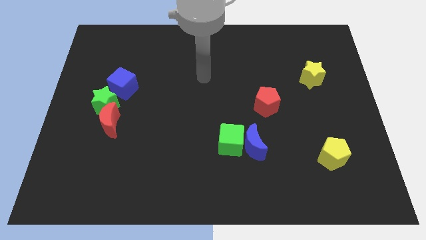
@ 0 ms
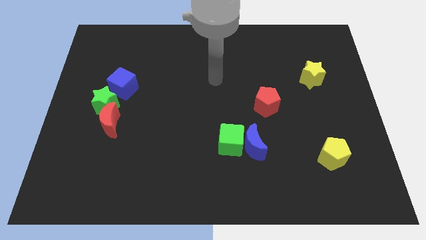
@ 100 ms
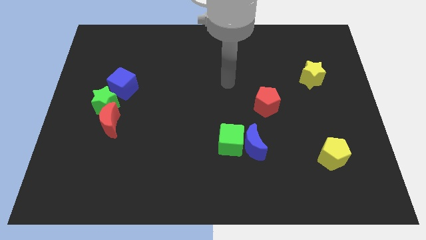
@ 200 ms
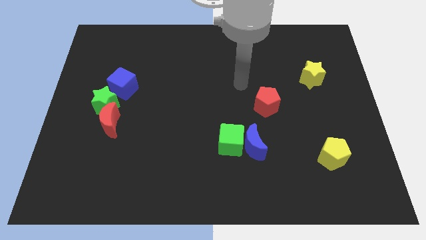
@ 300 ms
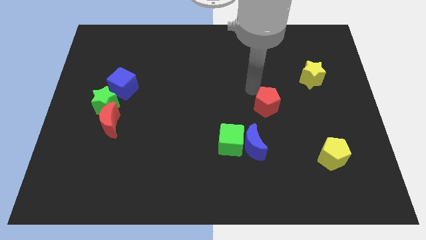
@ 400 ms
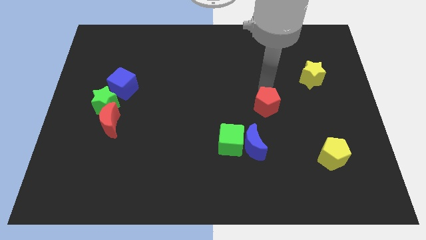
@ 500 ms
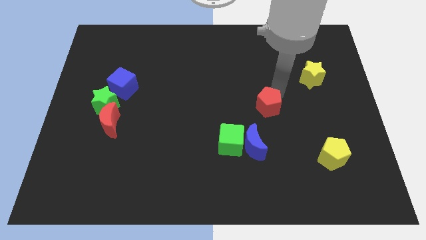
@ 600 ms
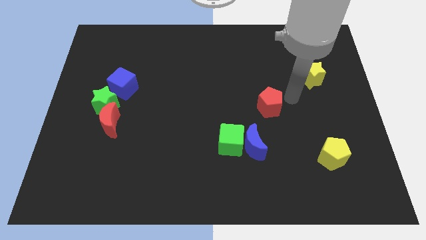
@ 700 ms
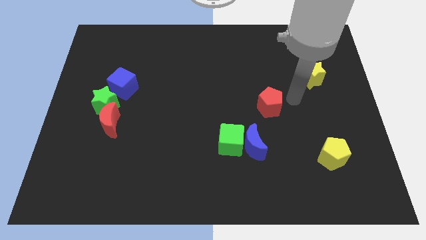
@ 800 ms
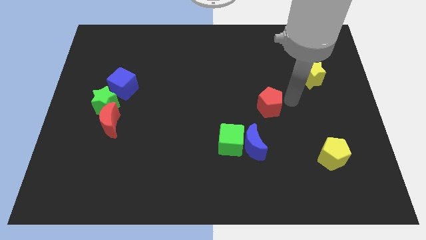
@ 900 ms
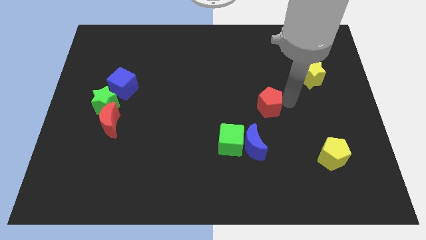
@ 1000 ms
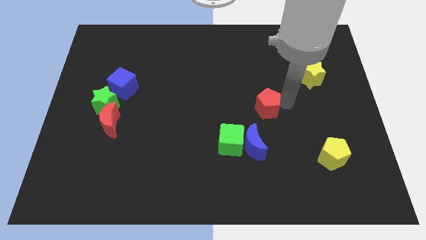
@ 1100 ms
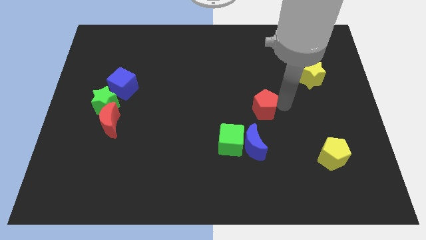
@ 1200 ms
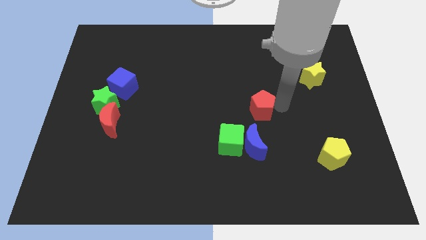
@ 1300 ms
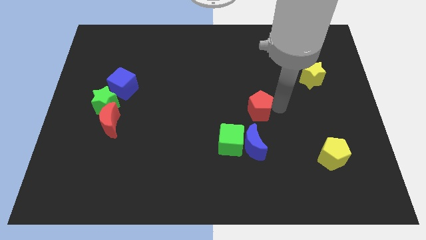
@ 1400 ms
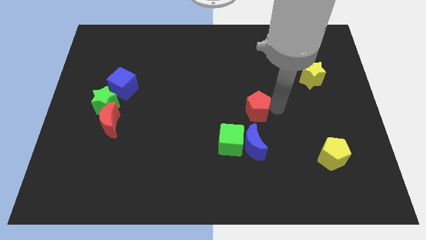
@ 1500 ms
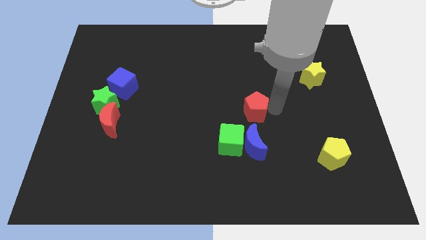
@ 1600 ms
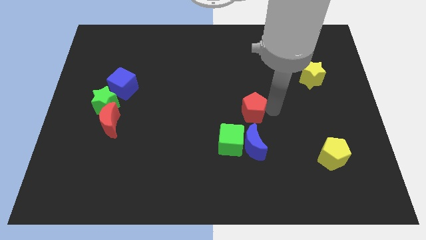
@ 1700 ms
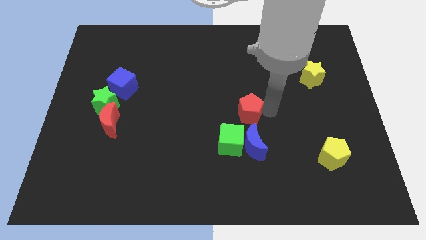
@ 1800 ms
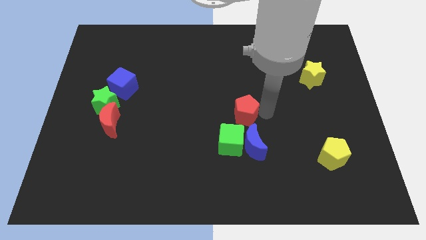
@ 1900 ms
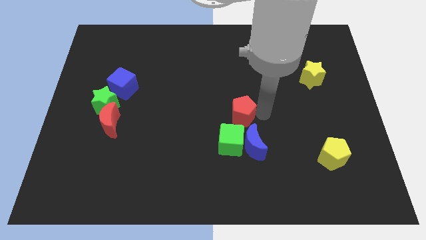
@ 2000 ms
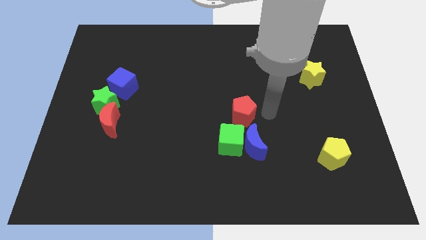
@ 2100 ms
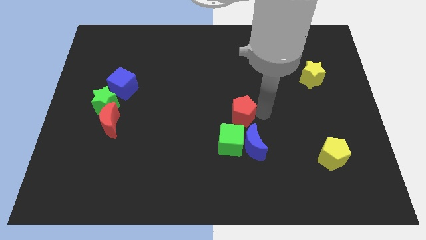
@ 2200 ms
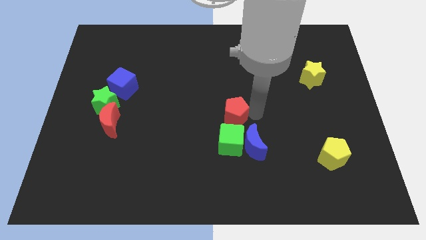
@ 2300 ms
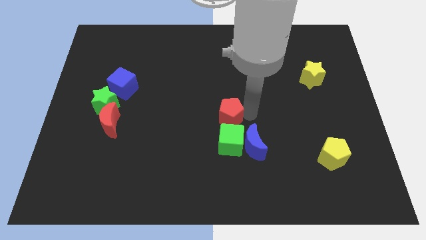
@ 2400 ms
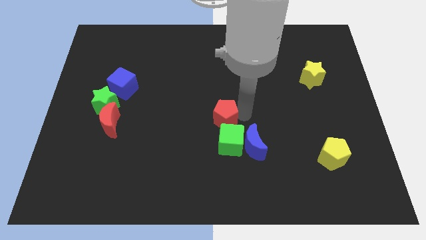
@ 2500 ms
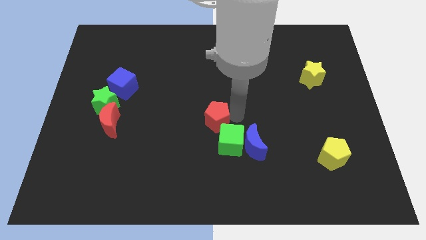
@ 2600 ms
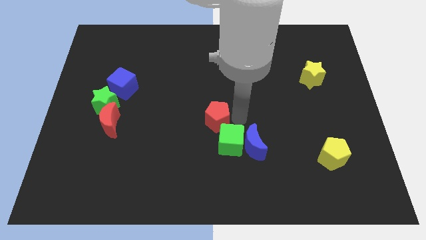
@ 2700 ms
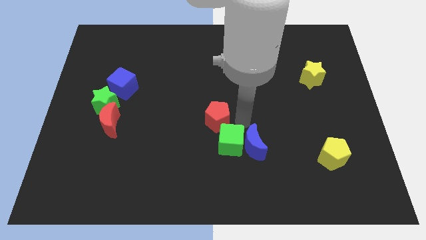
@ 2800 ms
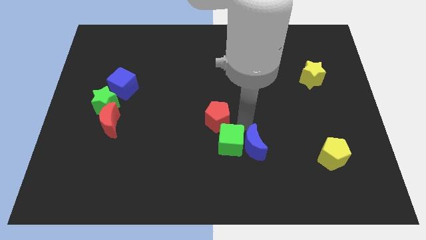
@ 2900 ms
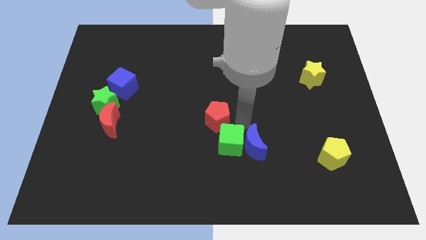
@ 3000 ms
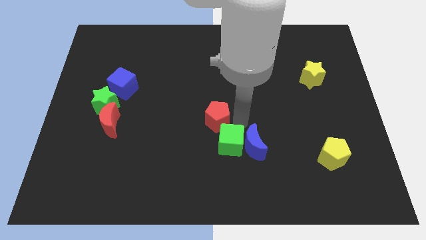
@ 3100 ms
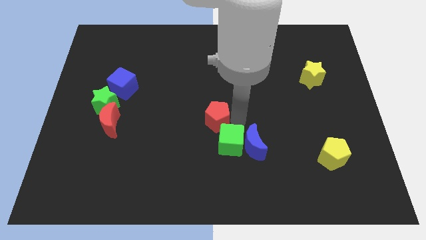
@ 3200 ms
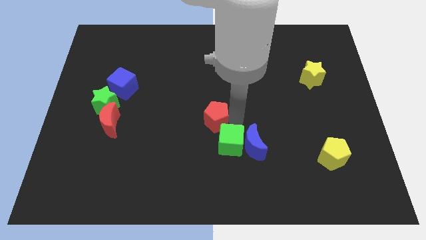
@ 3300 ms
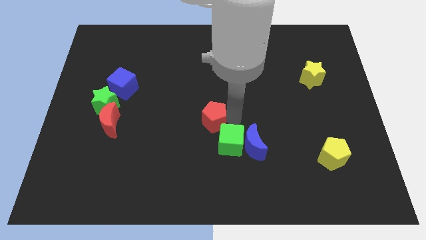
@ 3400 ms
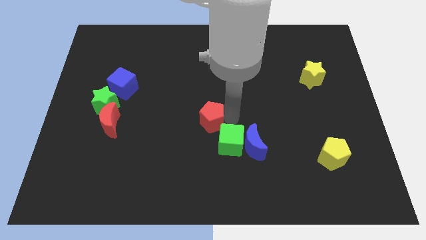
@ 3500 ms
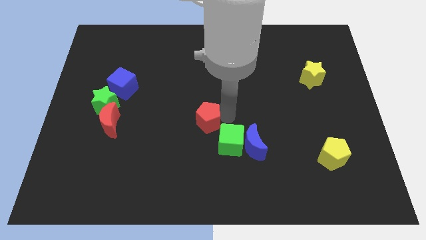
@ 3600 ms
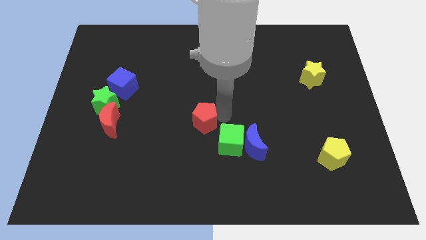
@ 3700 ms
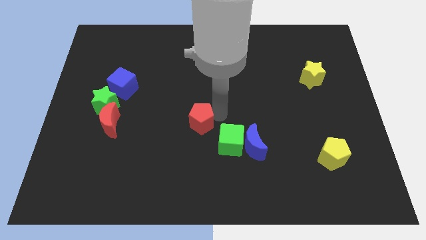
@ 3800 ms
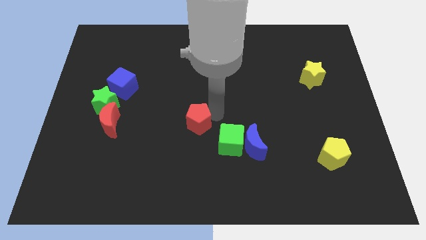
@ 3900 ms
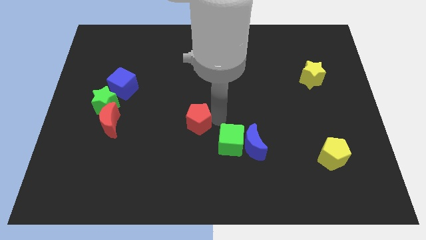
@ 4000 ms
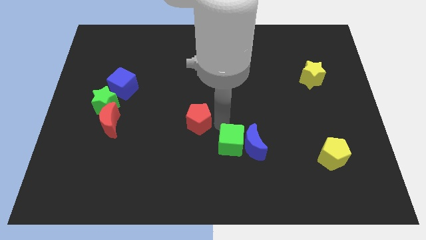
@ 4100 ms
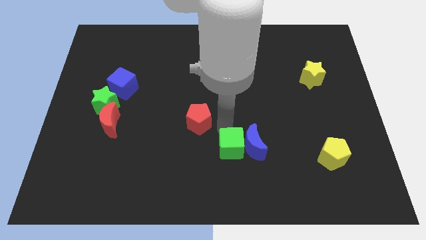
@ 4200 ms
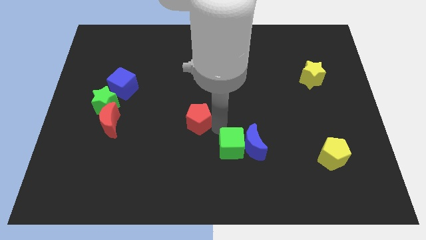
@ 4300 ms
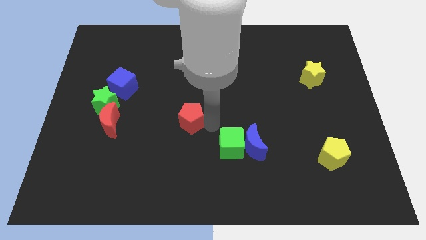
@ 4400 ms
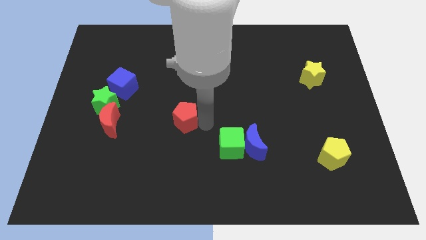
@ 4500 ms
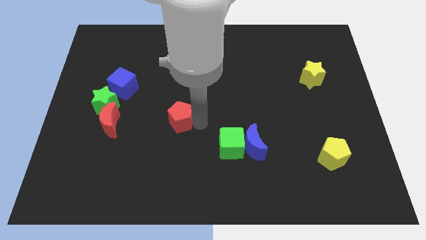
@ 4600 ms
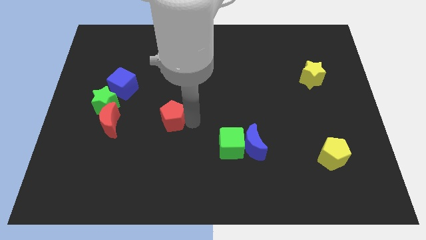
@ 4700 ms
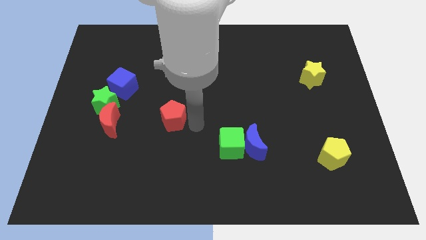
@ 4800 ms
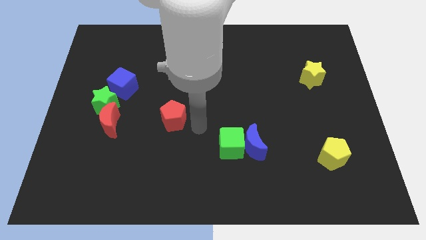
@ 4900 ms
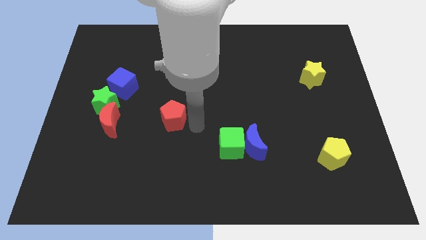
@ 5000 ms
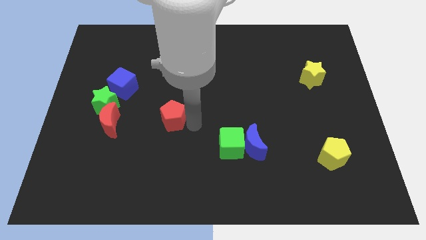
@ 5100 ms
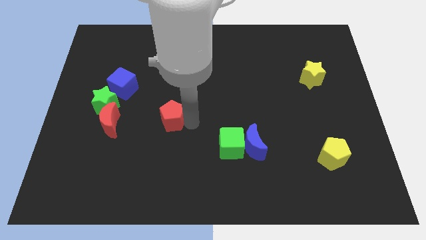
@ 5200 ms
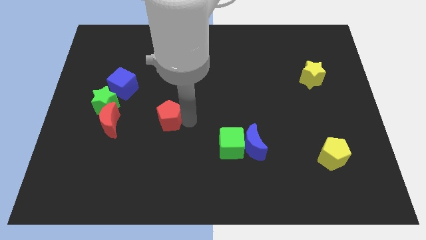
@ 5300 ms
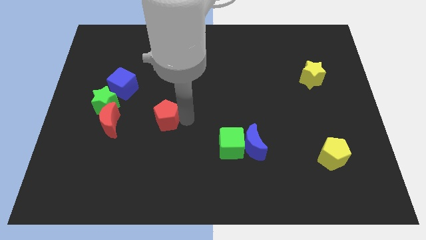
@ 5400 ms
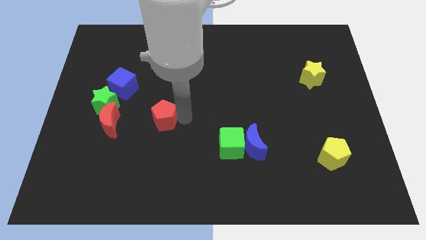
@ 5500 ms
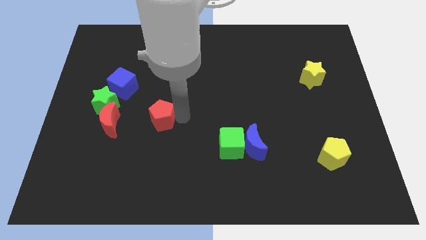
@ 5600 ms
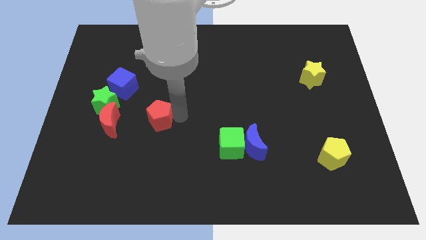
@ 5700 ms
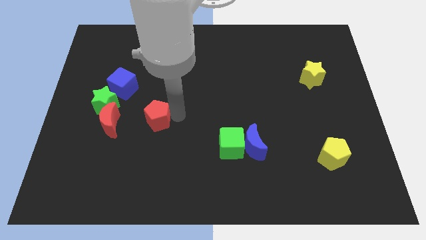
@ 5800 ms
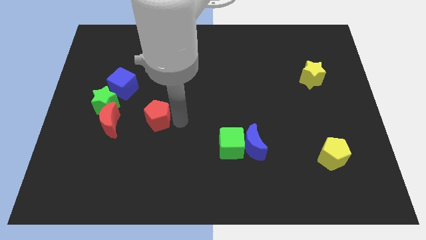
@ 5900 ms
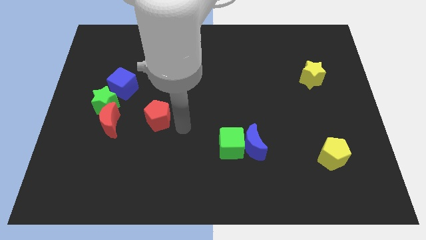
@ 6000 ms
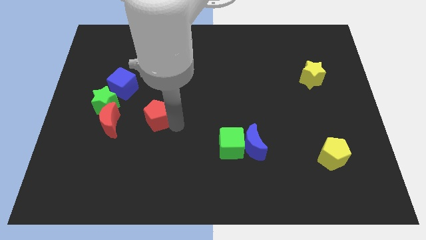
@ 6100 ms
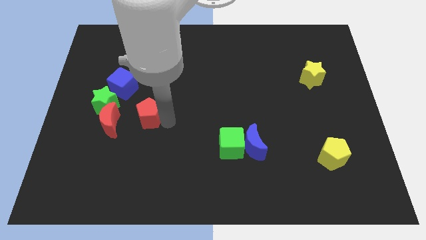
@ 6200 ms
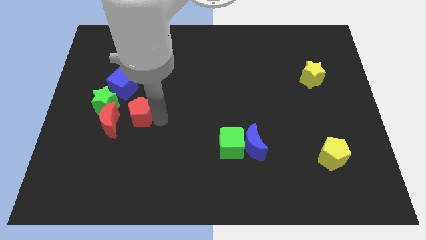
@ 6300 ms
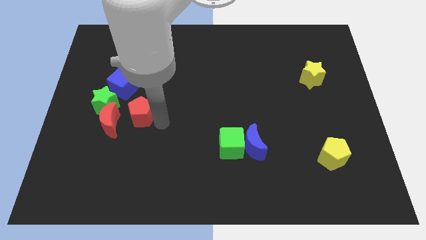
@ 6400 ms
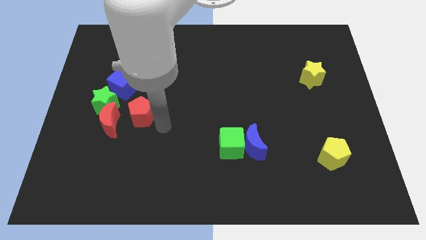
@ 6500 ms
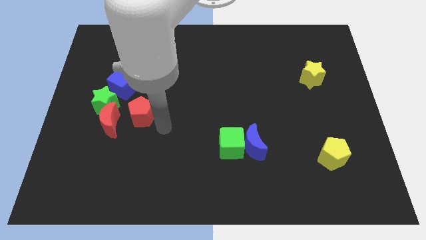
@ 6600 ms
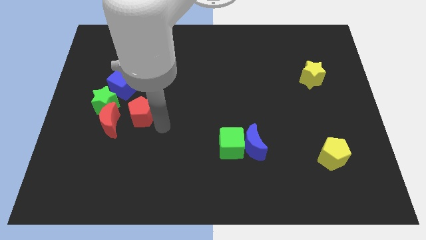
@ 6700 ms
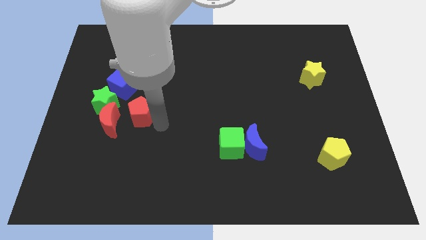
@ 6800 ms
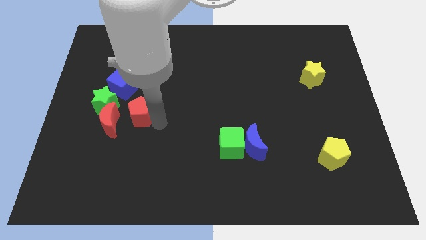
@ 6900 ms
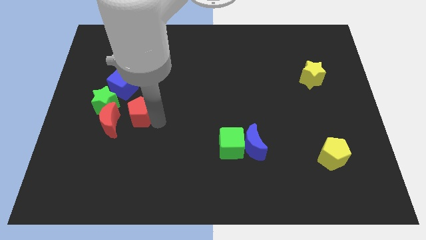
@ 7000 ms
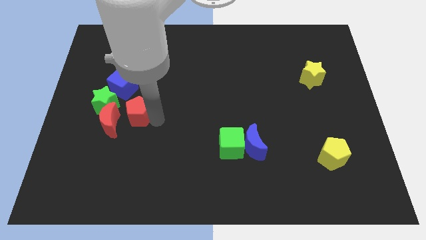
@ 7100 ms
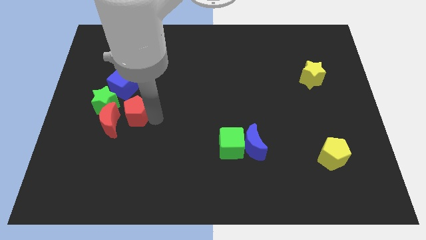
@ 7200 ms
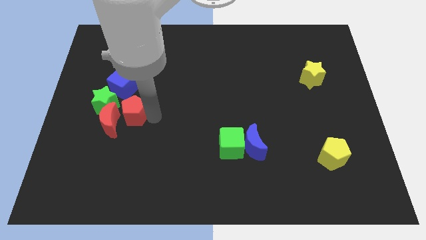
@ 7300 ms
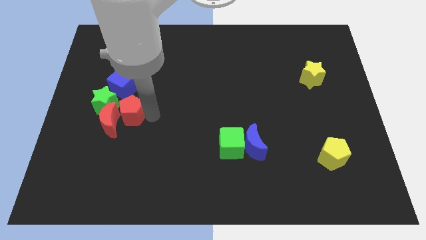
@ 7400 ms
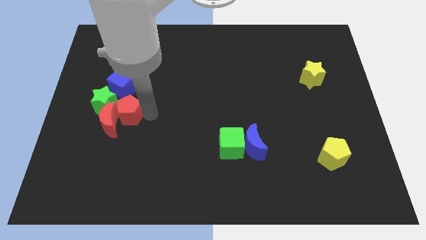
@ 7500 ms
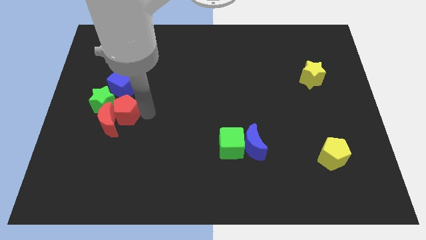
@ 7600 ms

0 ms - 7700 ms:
slide the red pentagon towards the green star
